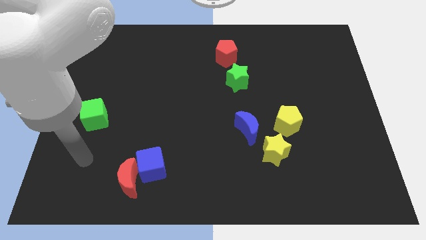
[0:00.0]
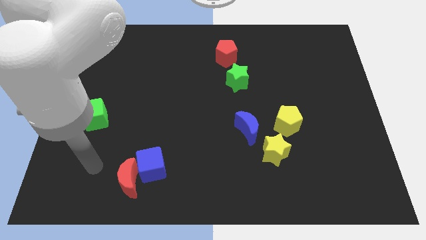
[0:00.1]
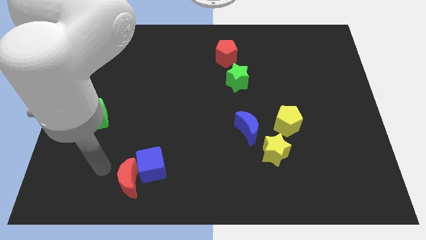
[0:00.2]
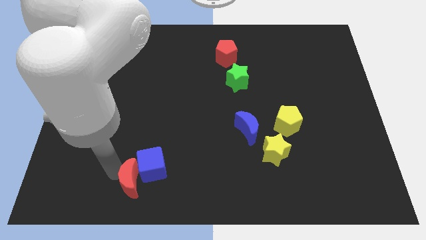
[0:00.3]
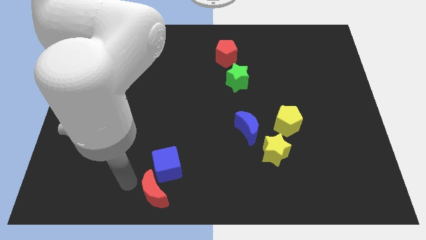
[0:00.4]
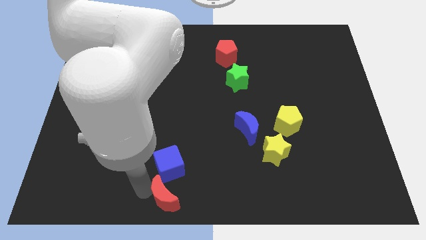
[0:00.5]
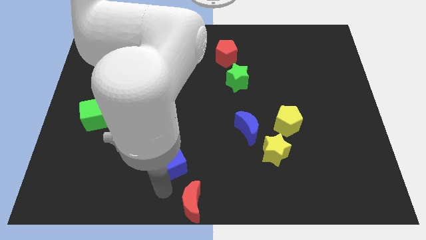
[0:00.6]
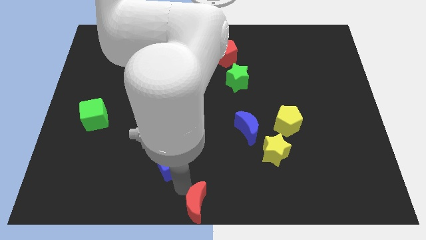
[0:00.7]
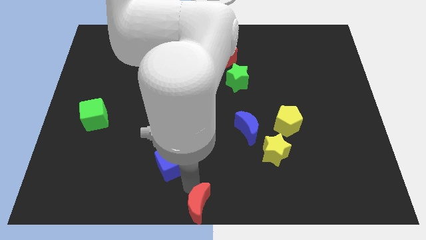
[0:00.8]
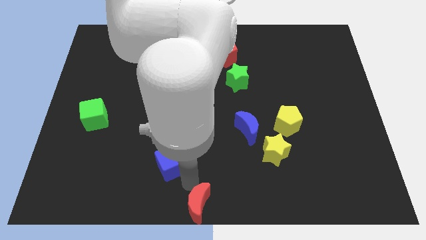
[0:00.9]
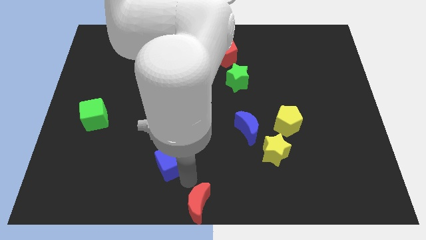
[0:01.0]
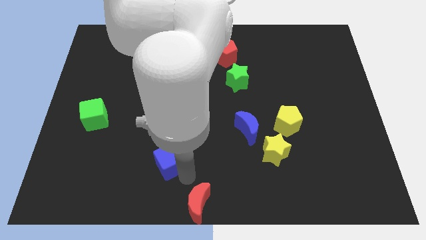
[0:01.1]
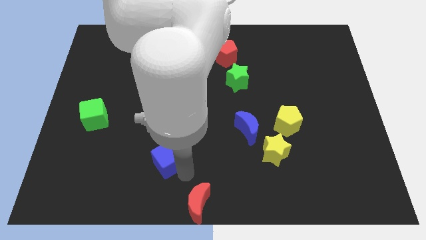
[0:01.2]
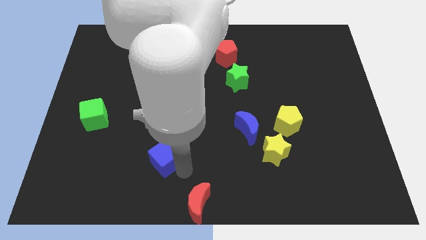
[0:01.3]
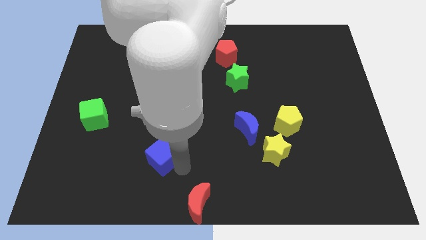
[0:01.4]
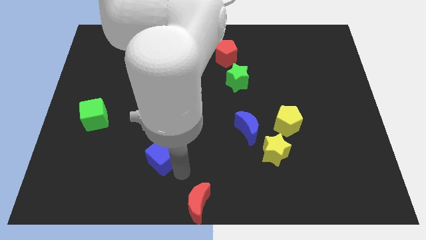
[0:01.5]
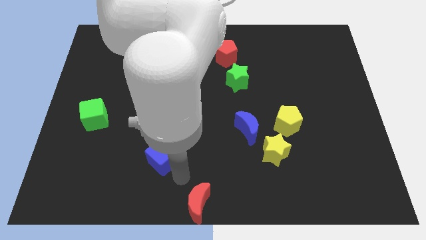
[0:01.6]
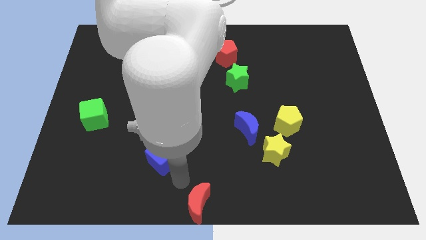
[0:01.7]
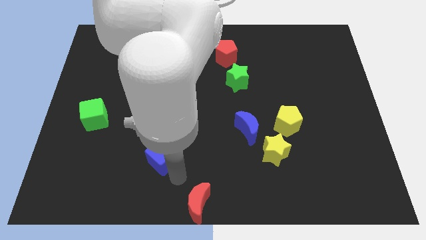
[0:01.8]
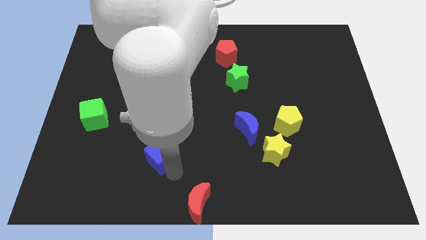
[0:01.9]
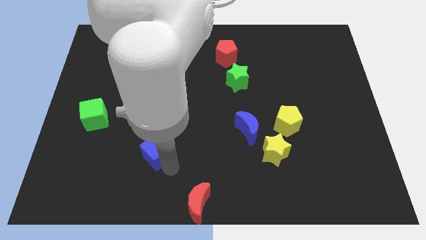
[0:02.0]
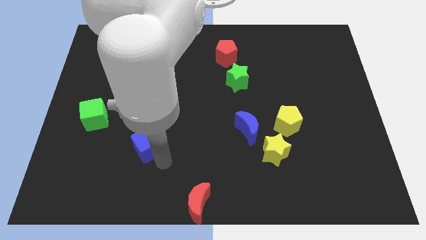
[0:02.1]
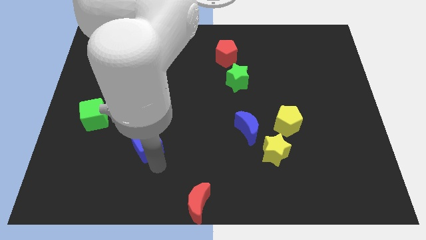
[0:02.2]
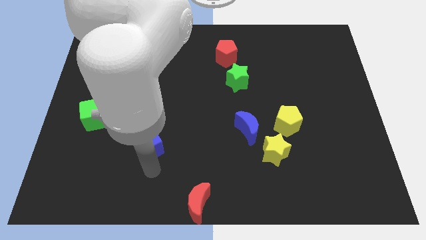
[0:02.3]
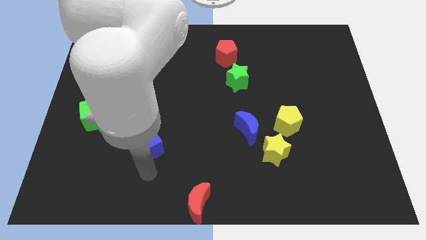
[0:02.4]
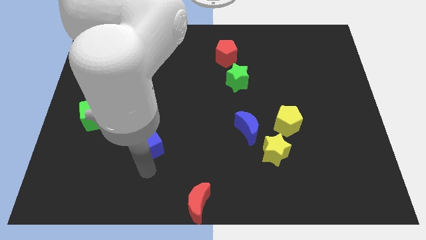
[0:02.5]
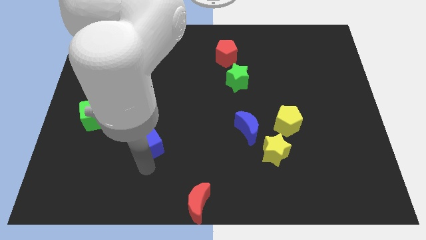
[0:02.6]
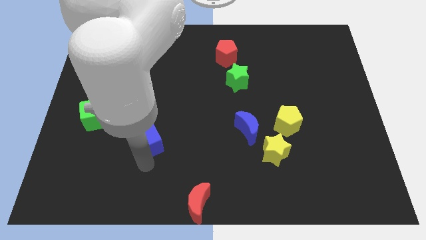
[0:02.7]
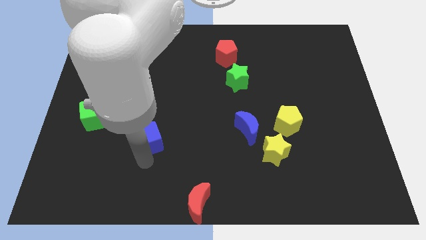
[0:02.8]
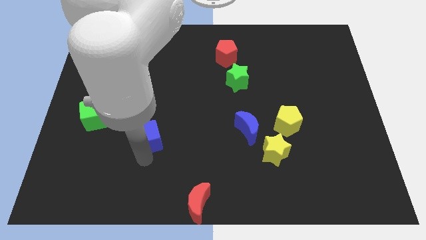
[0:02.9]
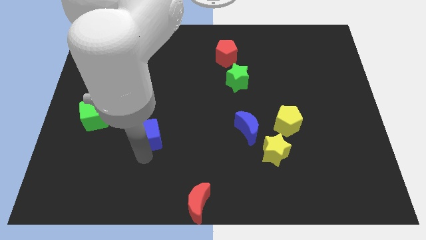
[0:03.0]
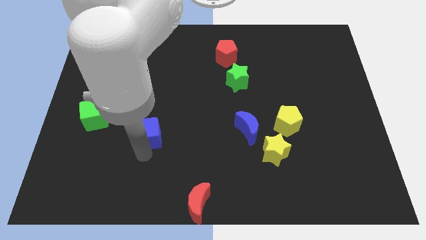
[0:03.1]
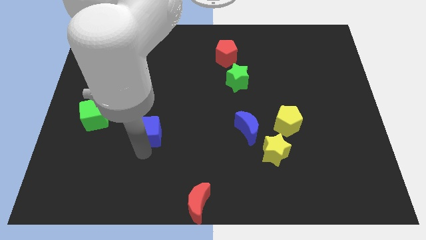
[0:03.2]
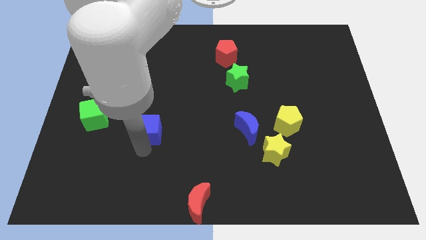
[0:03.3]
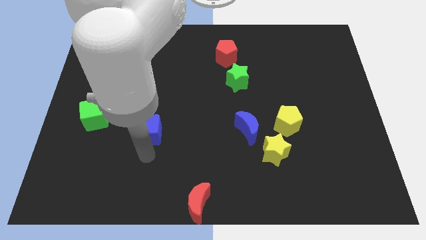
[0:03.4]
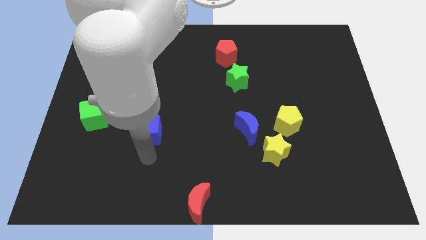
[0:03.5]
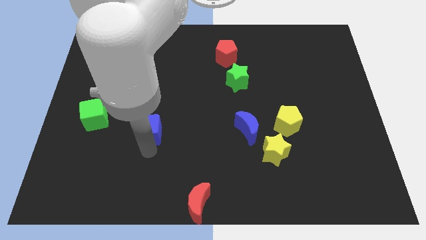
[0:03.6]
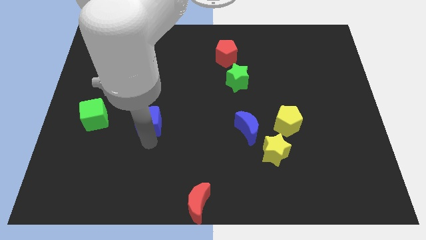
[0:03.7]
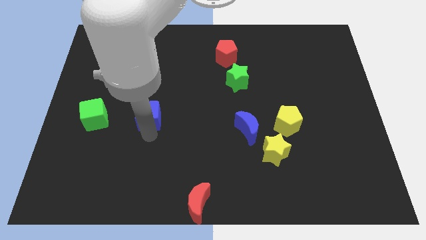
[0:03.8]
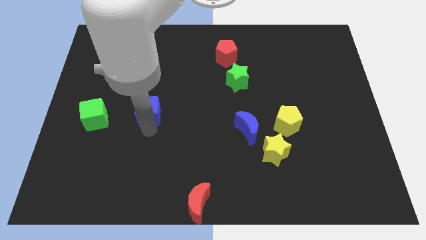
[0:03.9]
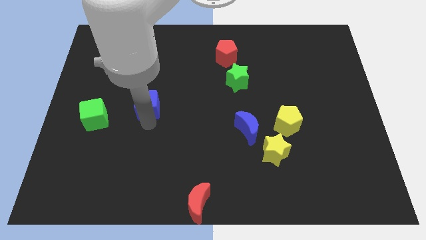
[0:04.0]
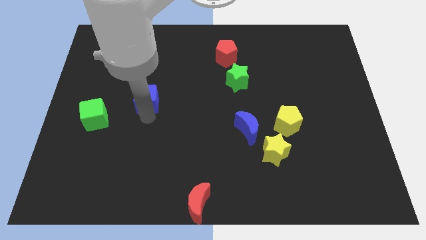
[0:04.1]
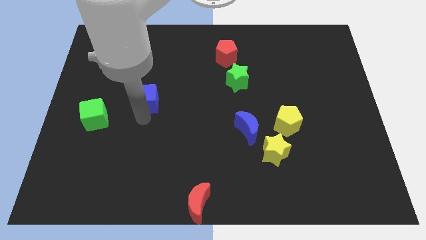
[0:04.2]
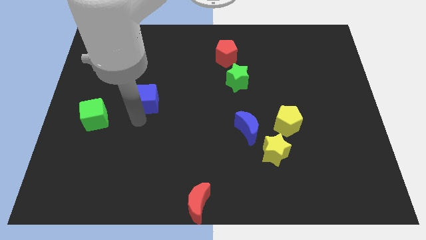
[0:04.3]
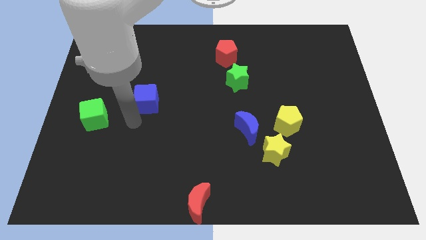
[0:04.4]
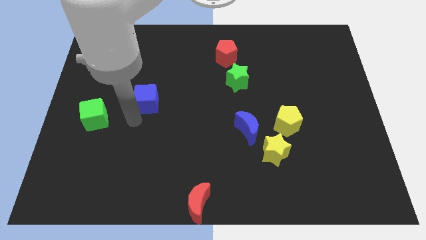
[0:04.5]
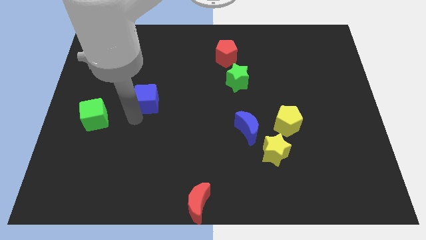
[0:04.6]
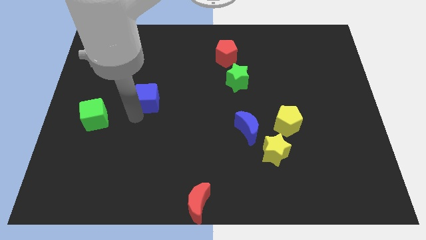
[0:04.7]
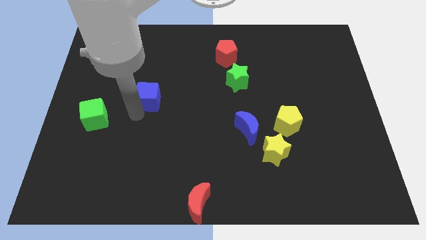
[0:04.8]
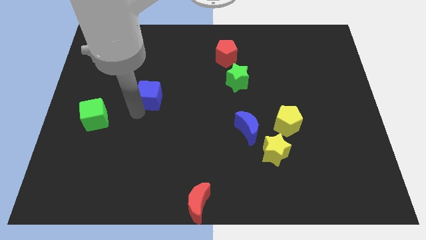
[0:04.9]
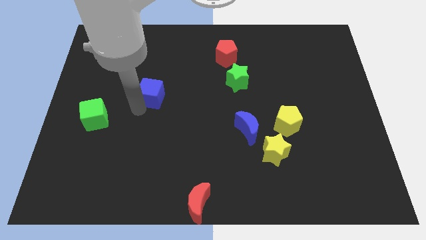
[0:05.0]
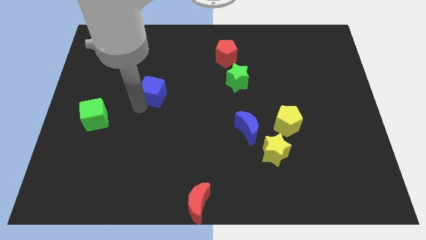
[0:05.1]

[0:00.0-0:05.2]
push the blue cube up

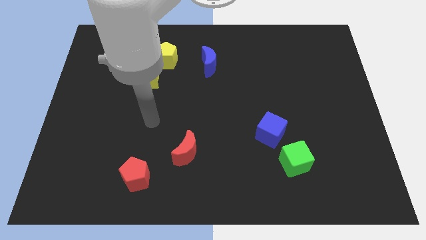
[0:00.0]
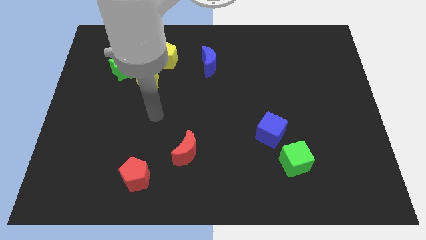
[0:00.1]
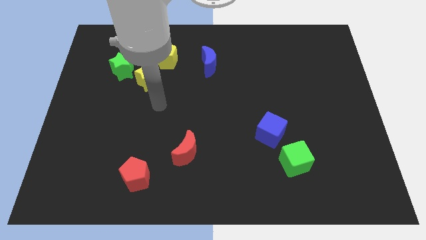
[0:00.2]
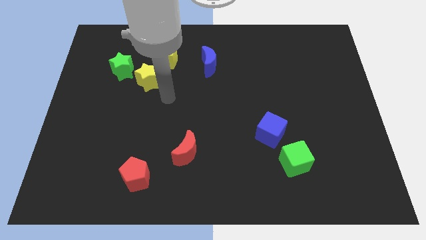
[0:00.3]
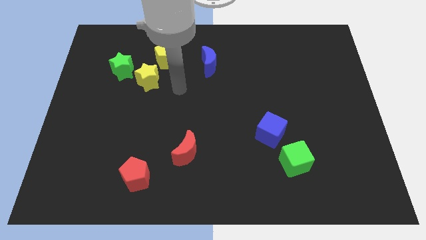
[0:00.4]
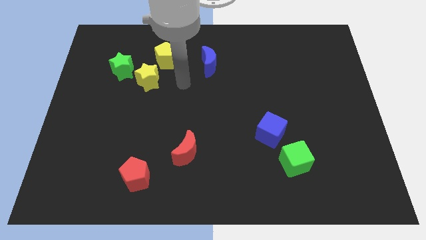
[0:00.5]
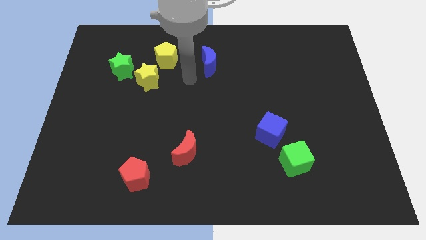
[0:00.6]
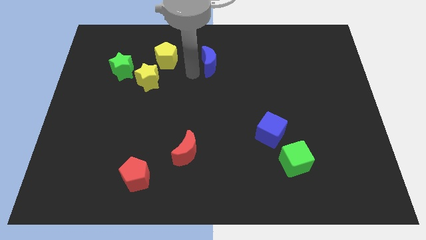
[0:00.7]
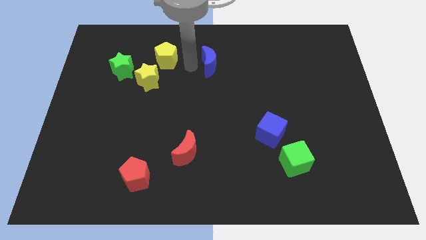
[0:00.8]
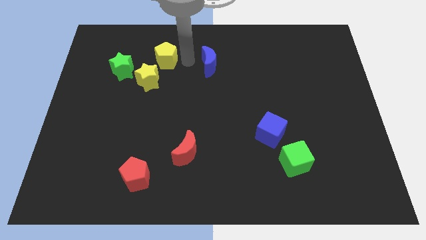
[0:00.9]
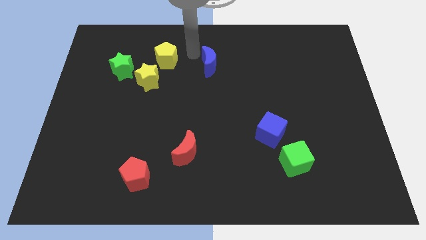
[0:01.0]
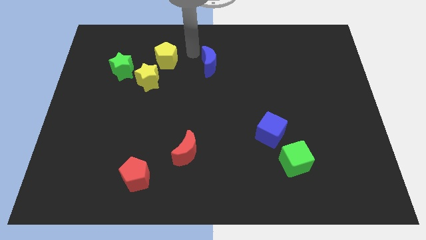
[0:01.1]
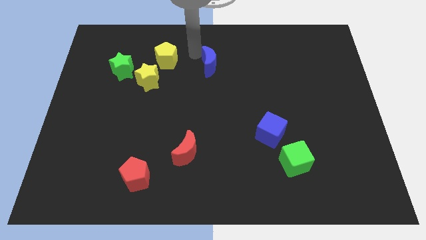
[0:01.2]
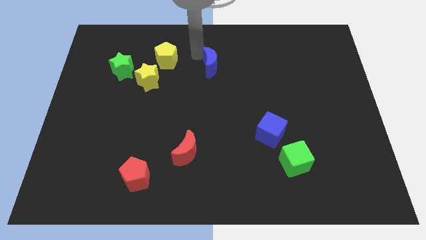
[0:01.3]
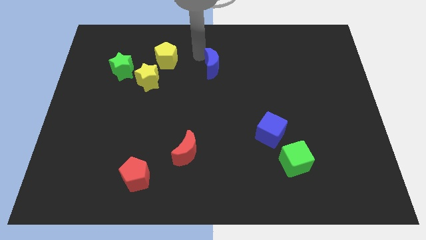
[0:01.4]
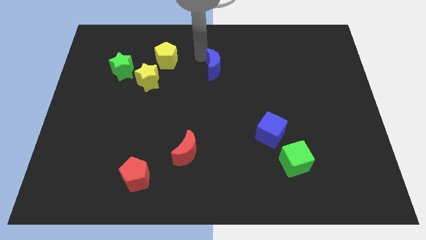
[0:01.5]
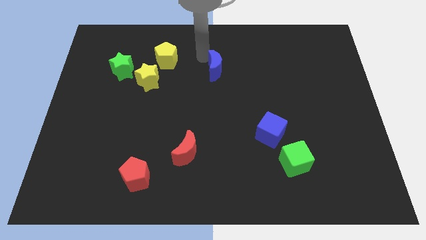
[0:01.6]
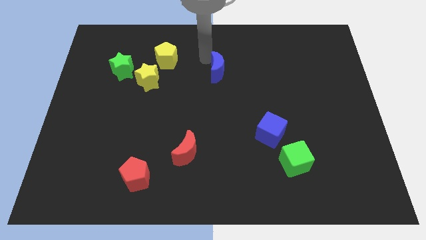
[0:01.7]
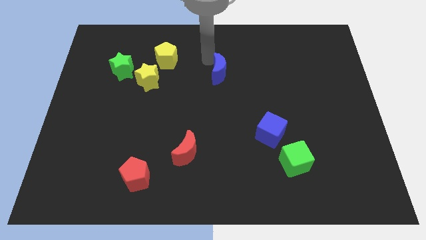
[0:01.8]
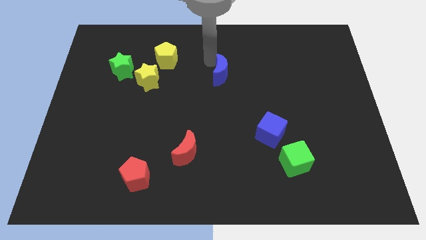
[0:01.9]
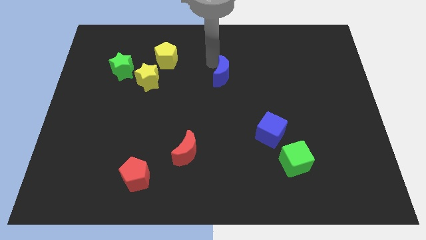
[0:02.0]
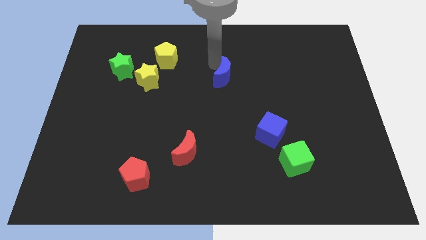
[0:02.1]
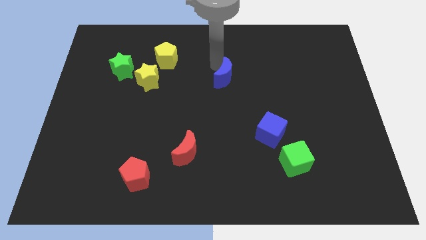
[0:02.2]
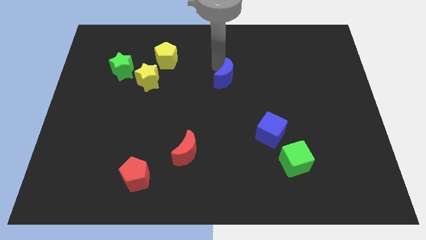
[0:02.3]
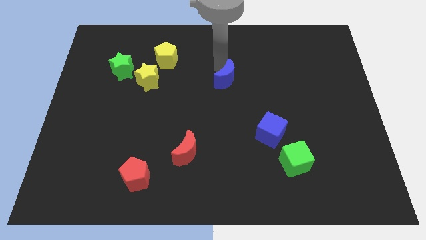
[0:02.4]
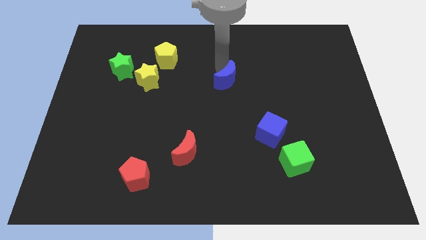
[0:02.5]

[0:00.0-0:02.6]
slide the blue moon diagonally downwards and to the right somewhat
